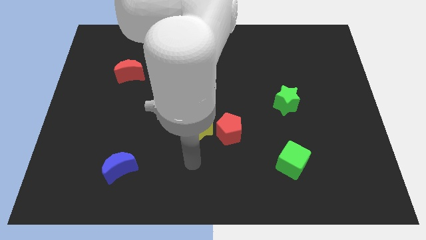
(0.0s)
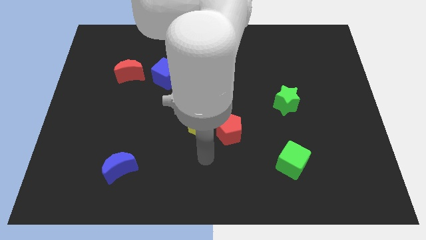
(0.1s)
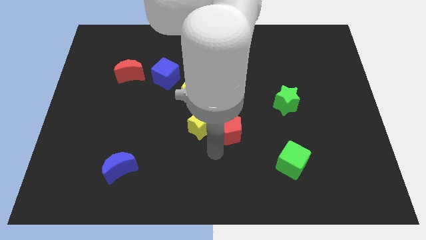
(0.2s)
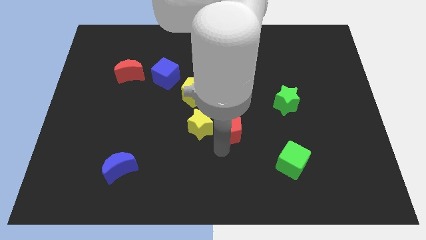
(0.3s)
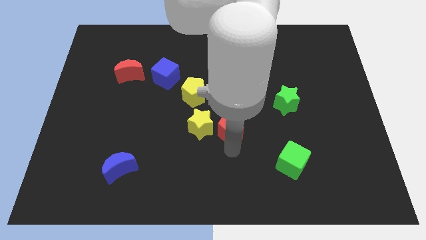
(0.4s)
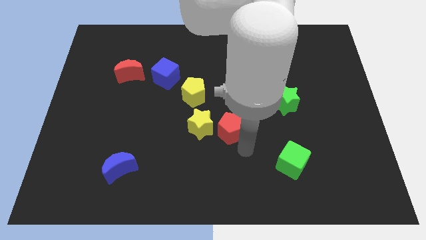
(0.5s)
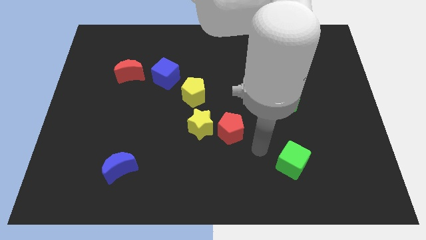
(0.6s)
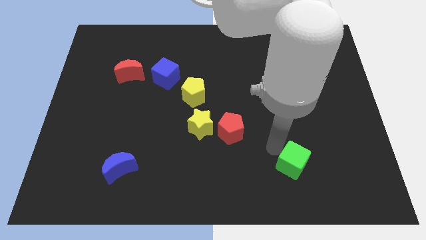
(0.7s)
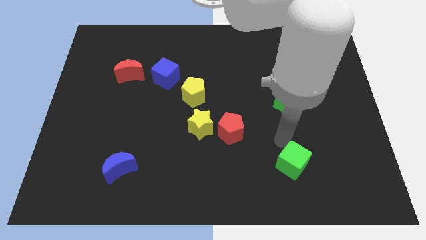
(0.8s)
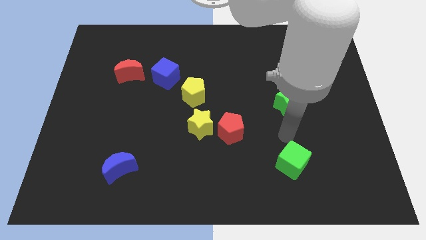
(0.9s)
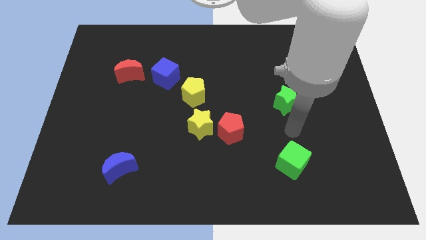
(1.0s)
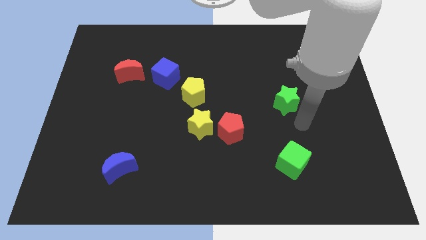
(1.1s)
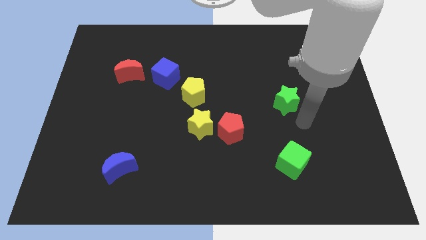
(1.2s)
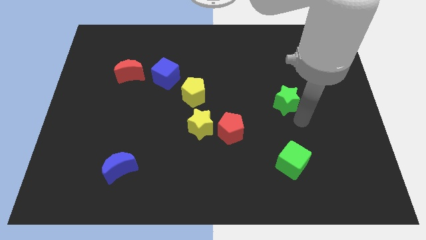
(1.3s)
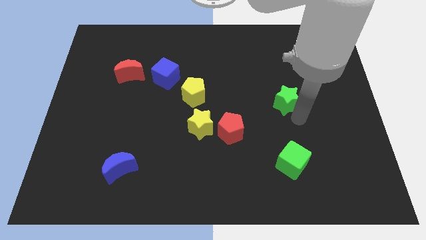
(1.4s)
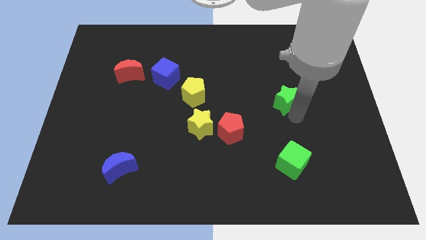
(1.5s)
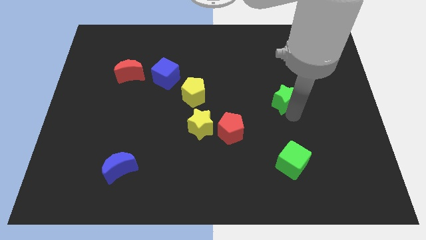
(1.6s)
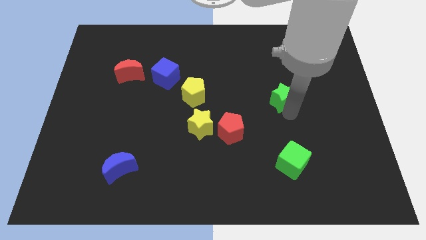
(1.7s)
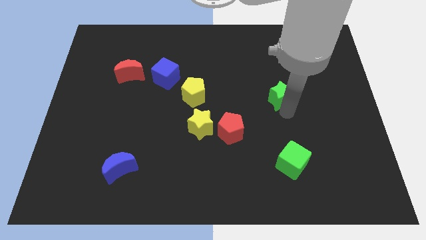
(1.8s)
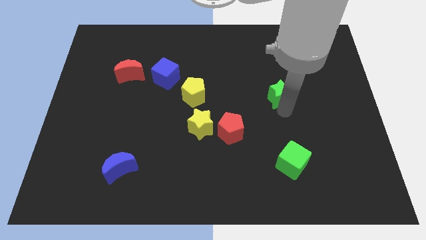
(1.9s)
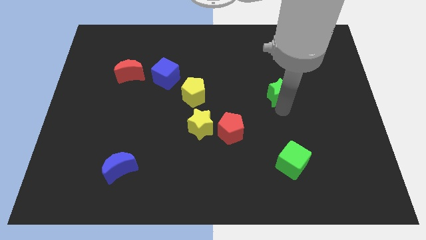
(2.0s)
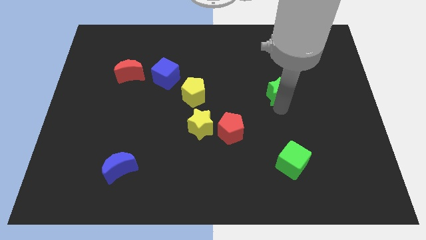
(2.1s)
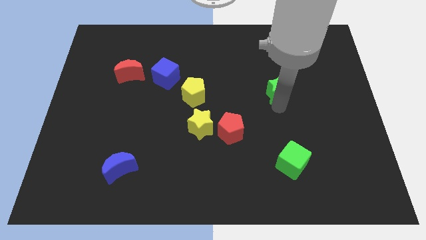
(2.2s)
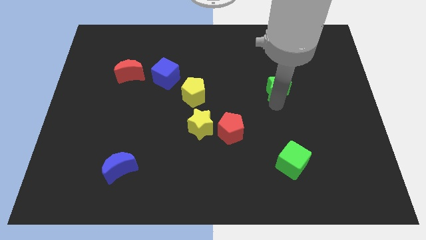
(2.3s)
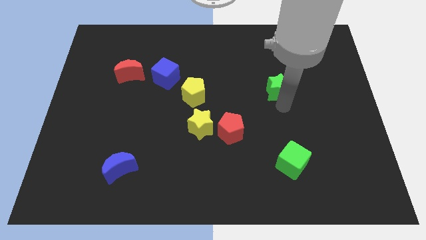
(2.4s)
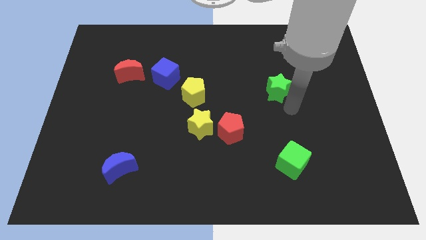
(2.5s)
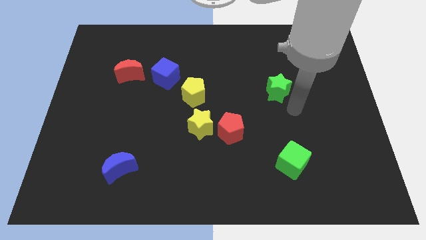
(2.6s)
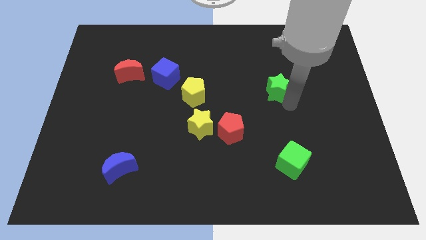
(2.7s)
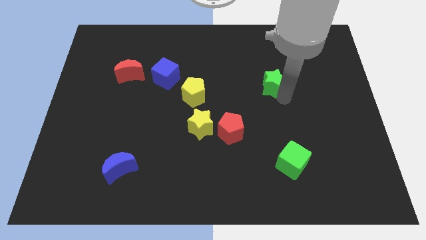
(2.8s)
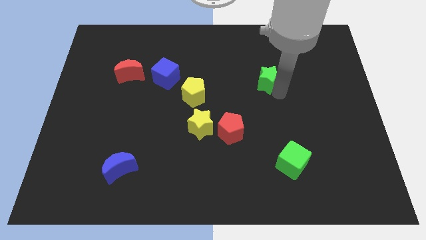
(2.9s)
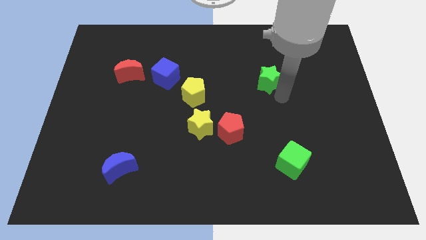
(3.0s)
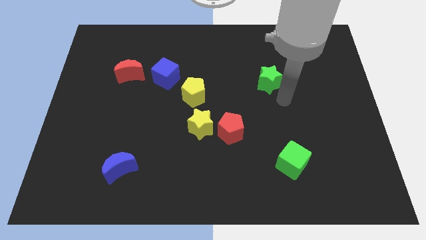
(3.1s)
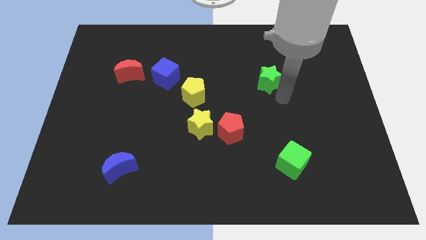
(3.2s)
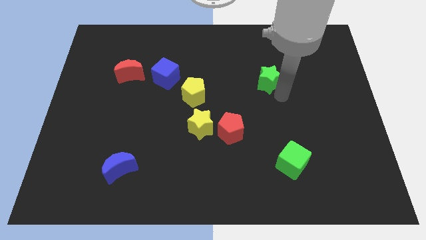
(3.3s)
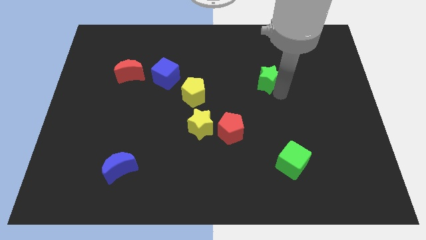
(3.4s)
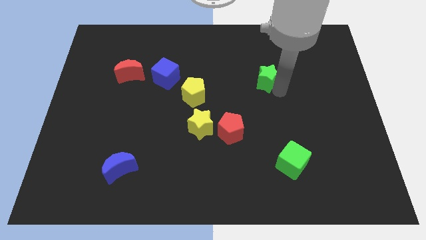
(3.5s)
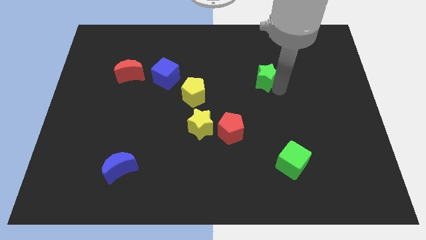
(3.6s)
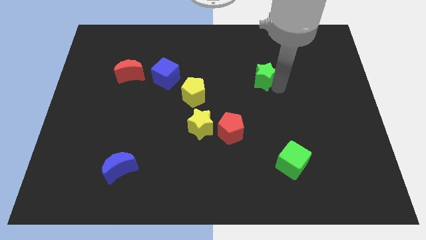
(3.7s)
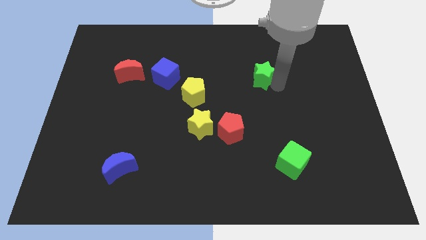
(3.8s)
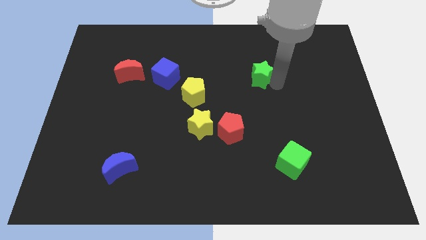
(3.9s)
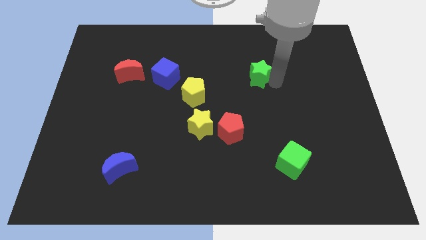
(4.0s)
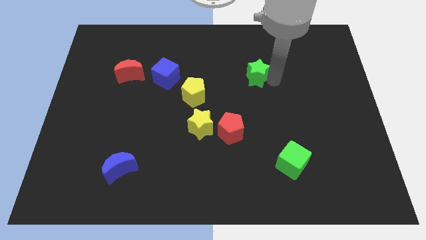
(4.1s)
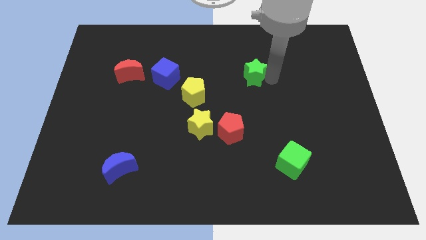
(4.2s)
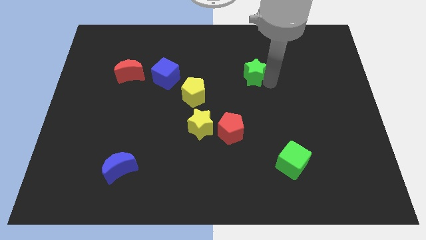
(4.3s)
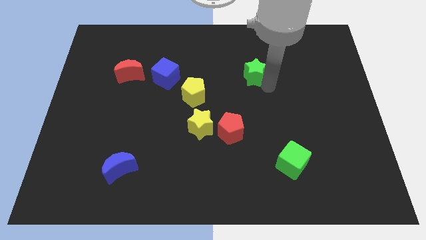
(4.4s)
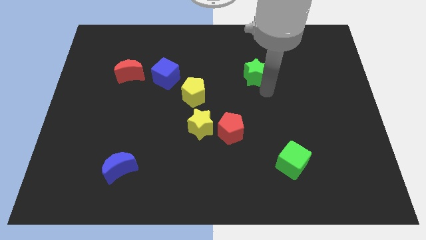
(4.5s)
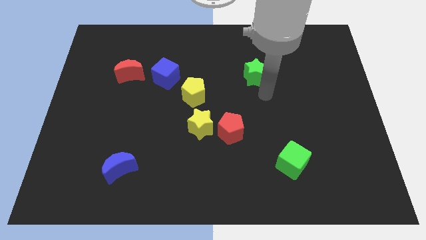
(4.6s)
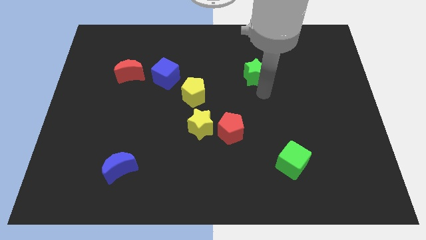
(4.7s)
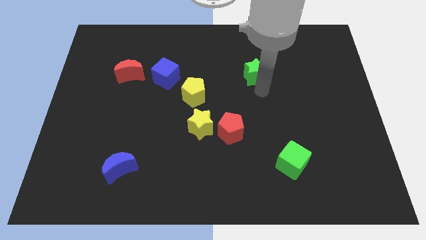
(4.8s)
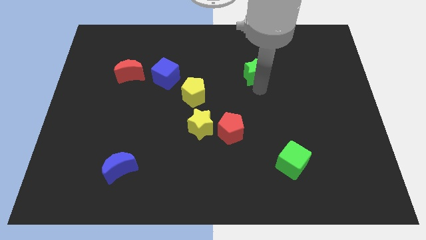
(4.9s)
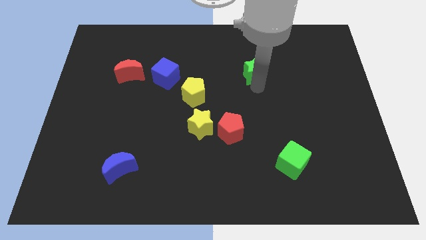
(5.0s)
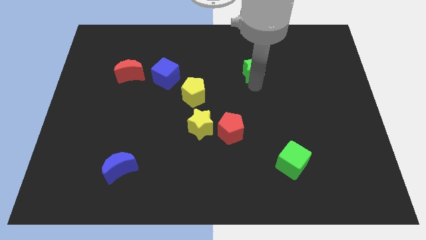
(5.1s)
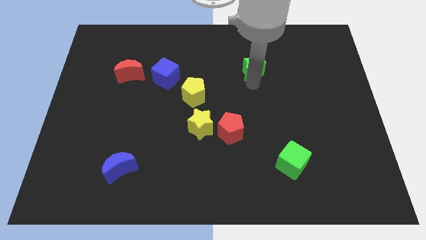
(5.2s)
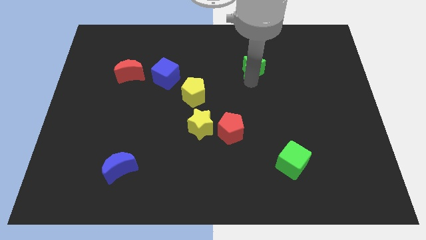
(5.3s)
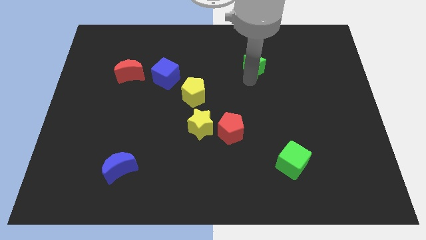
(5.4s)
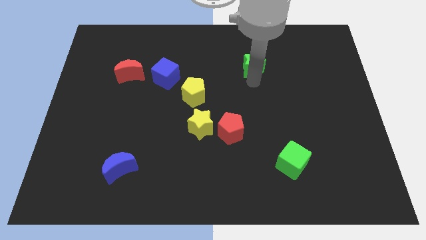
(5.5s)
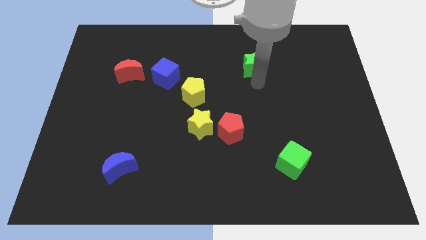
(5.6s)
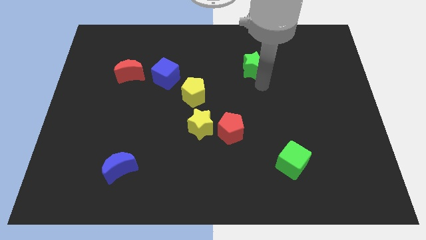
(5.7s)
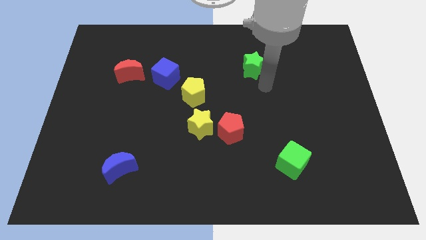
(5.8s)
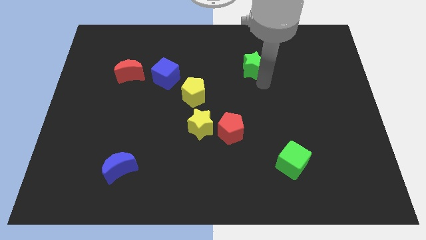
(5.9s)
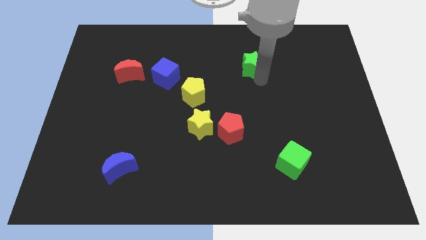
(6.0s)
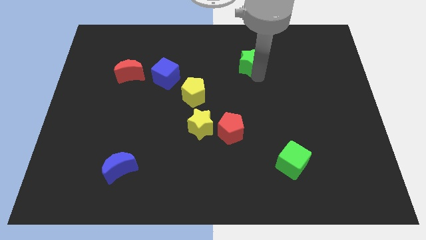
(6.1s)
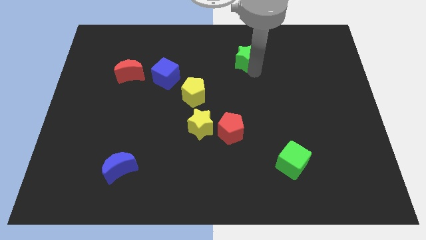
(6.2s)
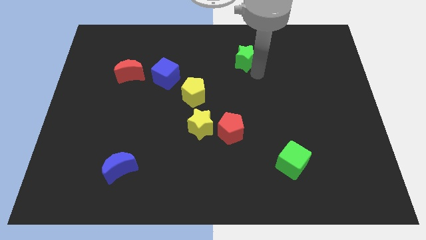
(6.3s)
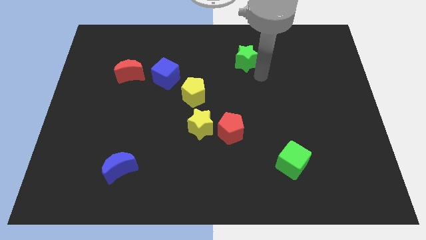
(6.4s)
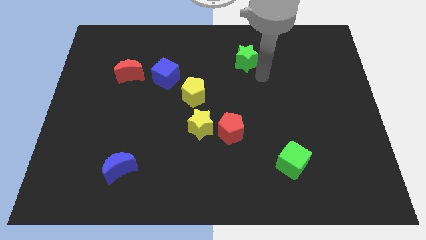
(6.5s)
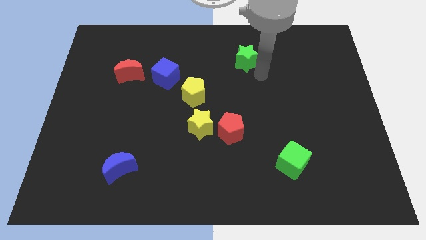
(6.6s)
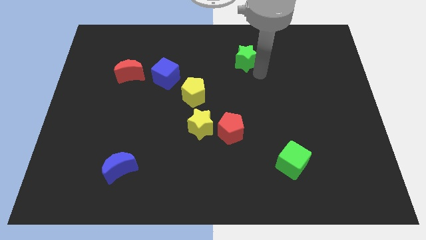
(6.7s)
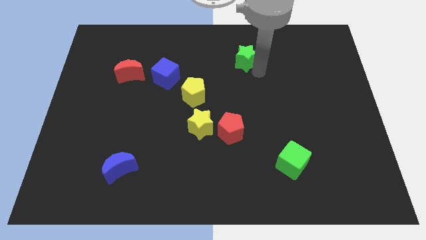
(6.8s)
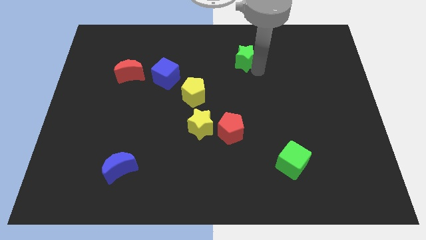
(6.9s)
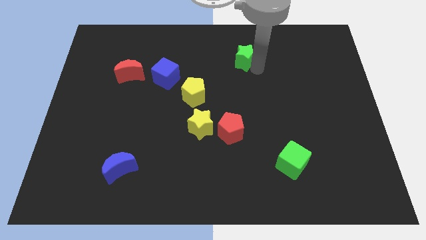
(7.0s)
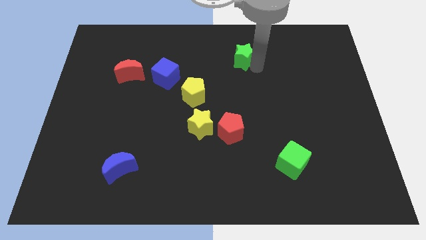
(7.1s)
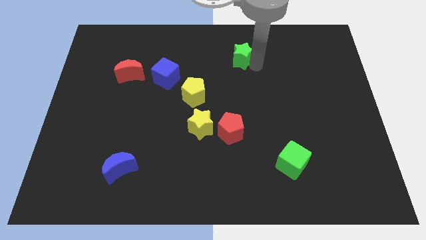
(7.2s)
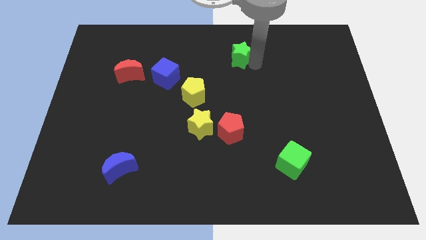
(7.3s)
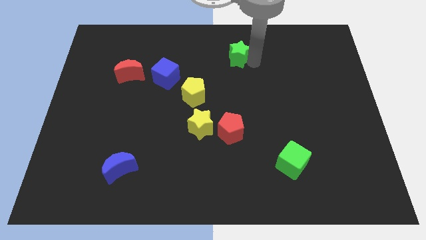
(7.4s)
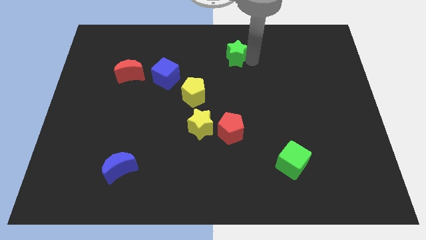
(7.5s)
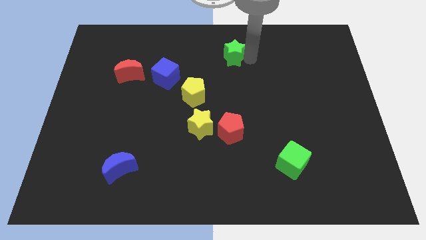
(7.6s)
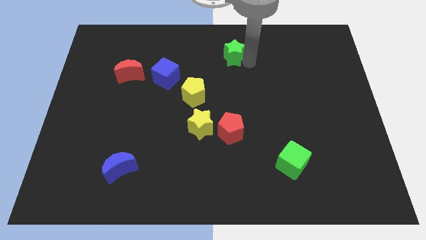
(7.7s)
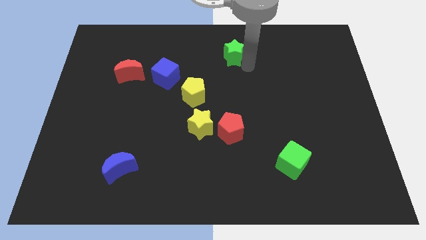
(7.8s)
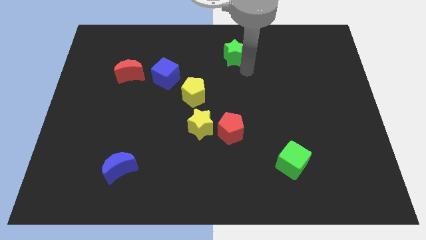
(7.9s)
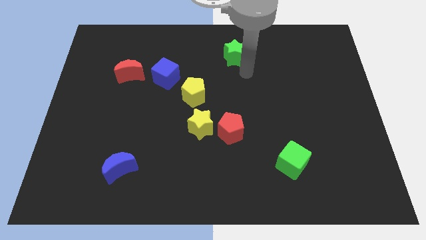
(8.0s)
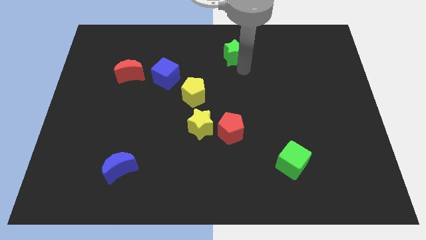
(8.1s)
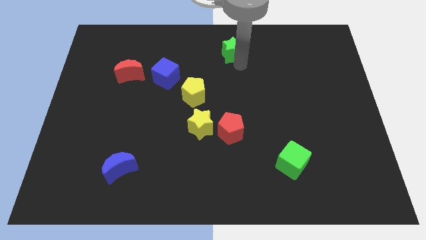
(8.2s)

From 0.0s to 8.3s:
push the green star to the top side
